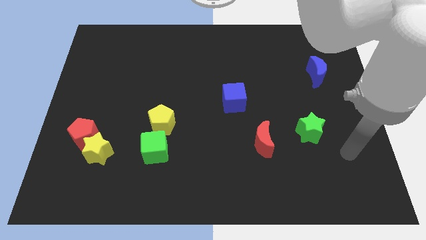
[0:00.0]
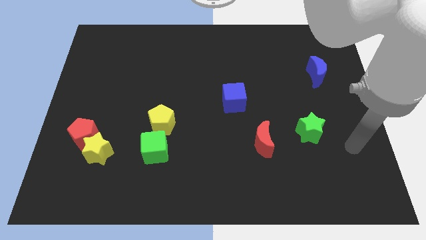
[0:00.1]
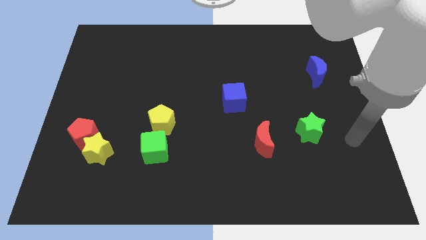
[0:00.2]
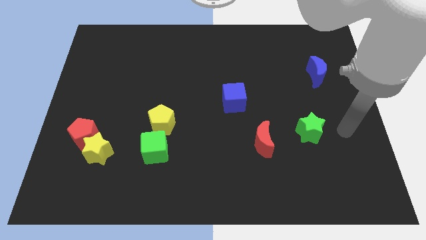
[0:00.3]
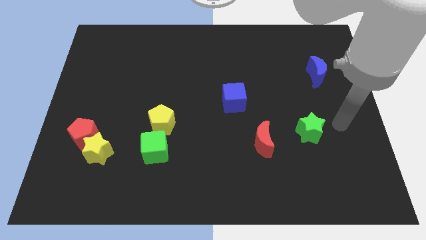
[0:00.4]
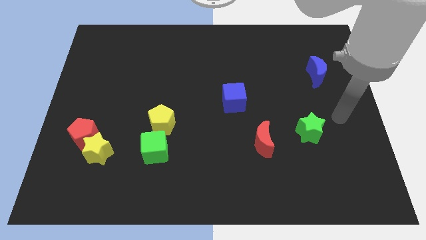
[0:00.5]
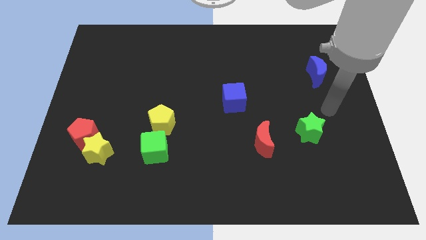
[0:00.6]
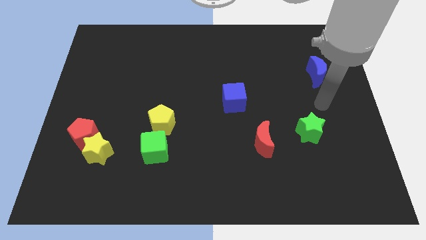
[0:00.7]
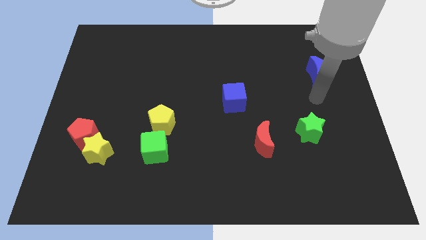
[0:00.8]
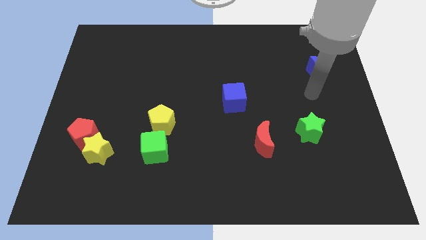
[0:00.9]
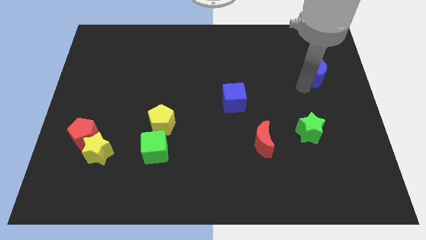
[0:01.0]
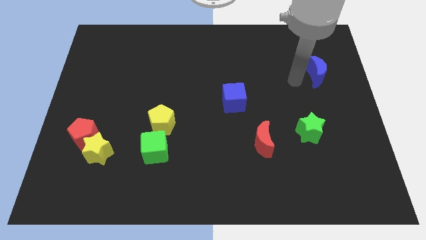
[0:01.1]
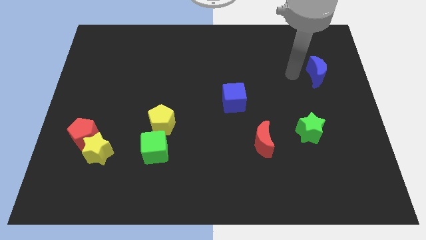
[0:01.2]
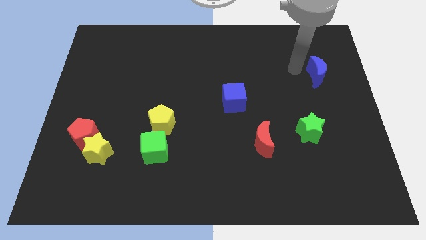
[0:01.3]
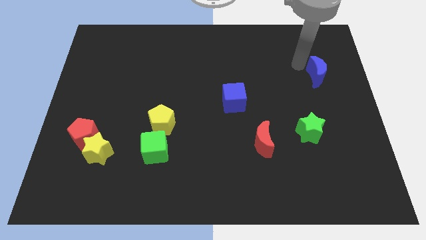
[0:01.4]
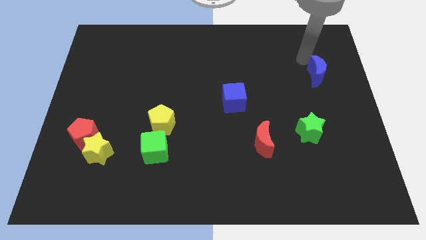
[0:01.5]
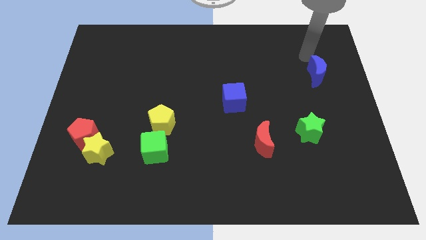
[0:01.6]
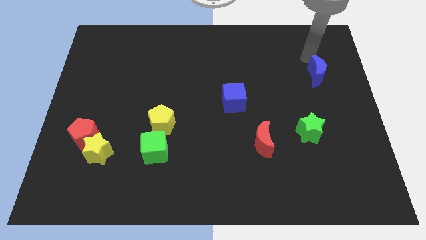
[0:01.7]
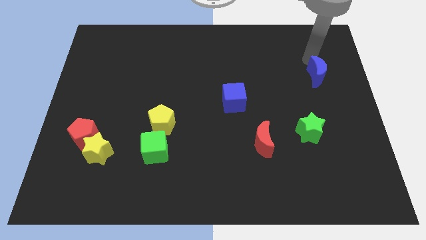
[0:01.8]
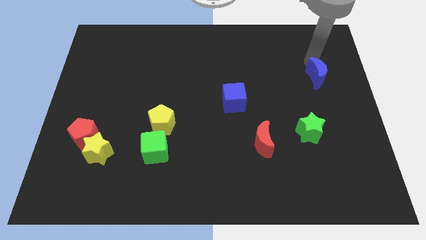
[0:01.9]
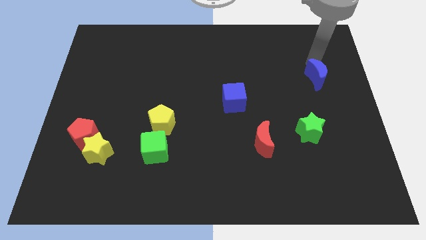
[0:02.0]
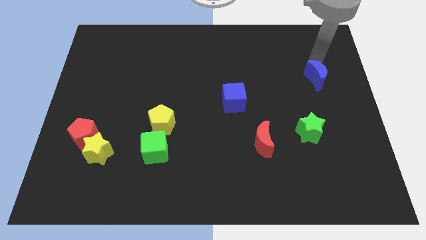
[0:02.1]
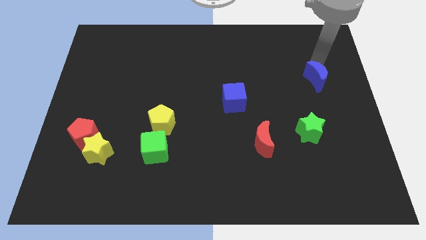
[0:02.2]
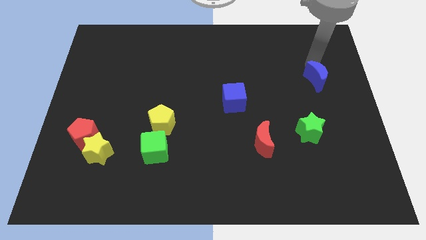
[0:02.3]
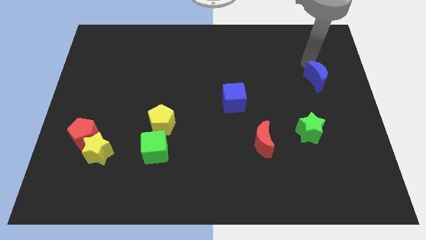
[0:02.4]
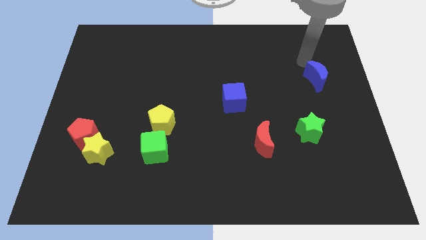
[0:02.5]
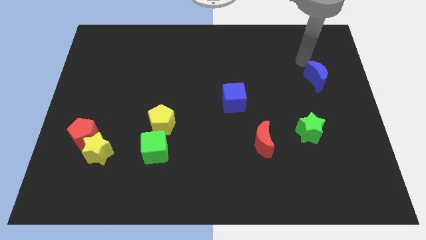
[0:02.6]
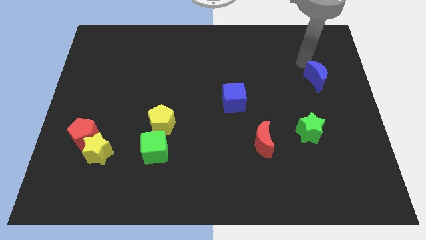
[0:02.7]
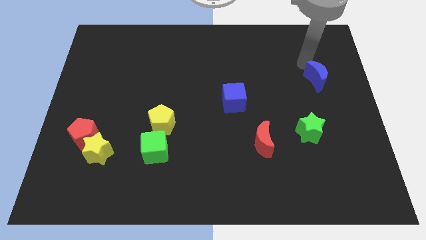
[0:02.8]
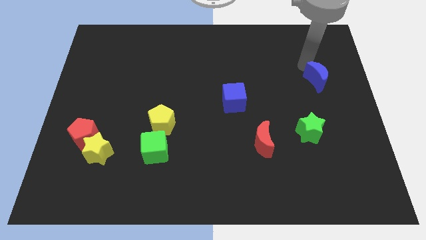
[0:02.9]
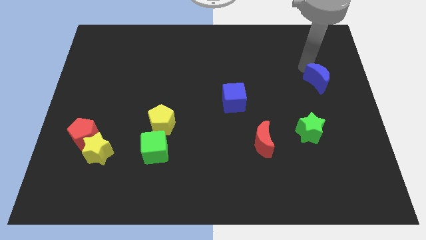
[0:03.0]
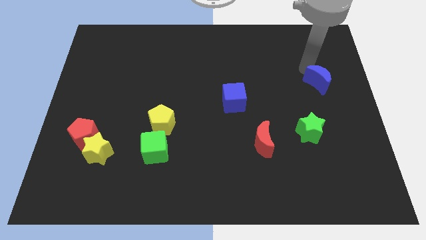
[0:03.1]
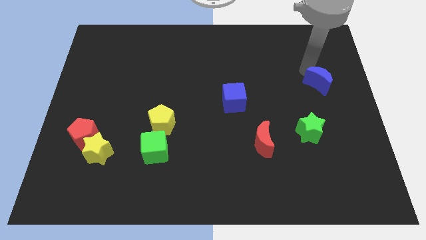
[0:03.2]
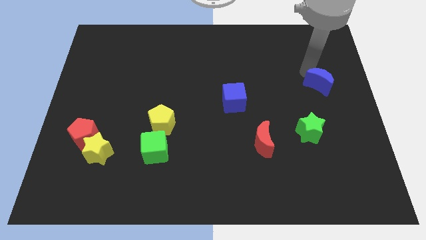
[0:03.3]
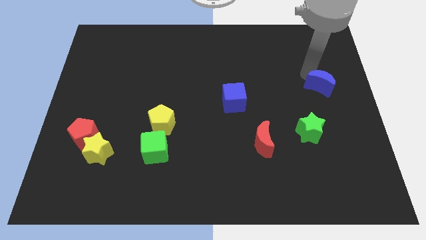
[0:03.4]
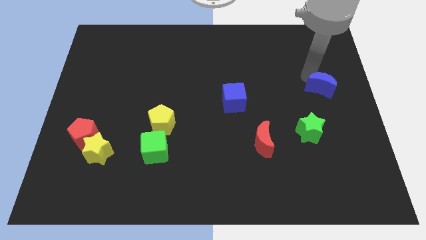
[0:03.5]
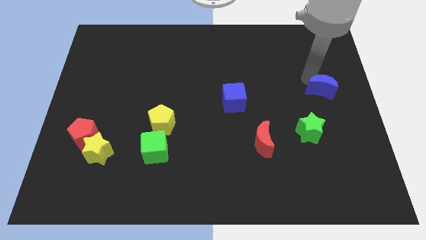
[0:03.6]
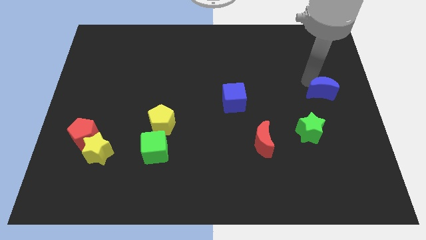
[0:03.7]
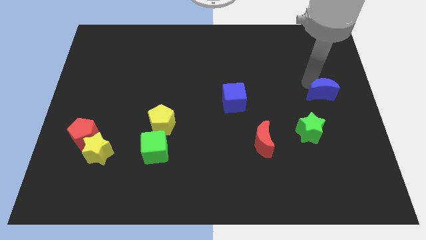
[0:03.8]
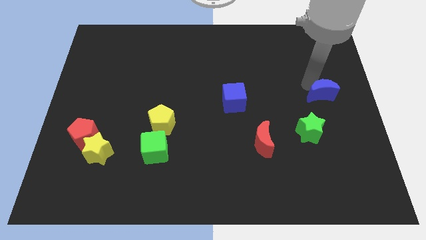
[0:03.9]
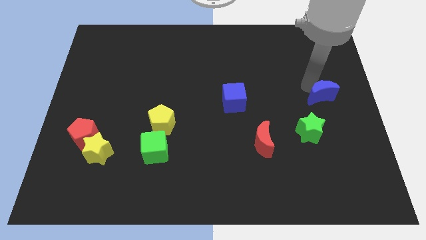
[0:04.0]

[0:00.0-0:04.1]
push the blue moon down somewhat

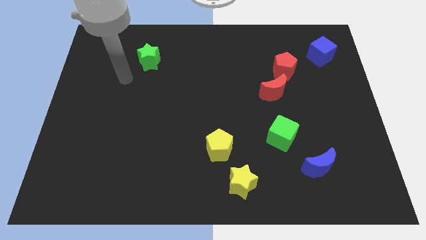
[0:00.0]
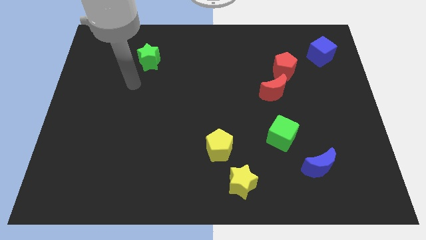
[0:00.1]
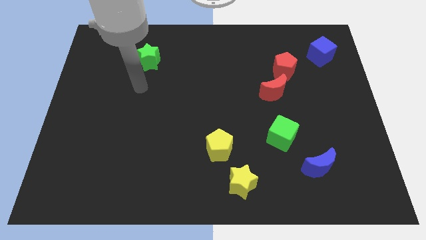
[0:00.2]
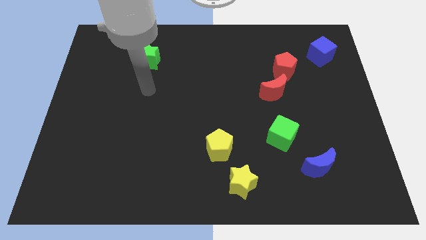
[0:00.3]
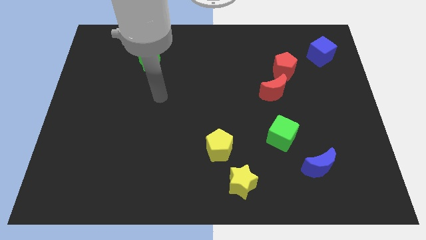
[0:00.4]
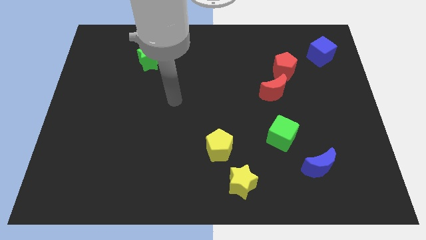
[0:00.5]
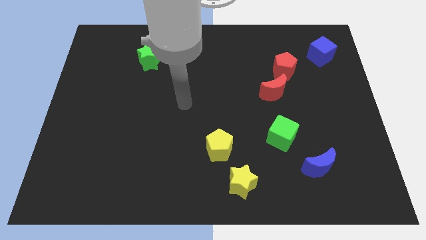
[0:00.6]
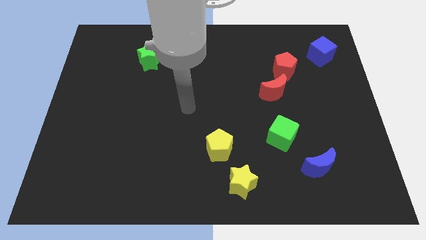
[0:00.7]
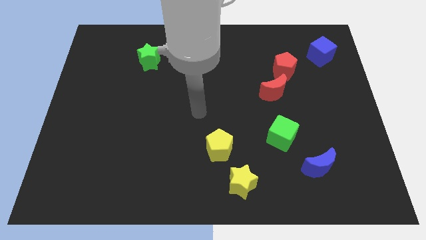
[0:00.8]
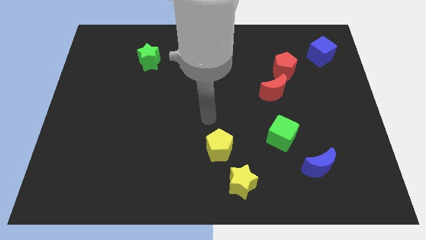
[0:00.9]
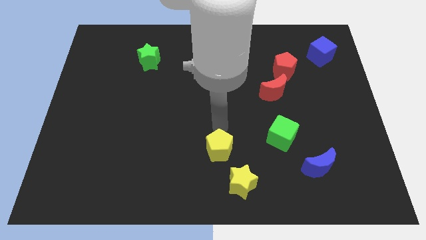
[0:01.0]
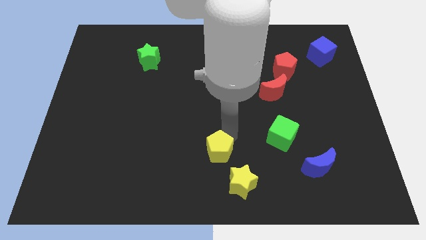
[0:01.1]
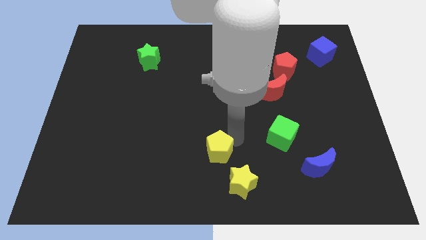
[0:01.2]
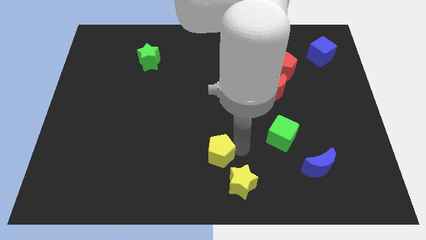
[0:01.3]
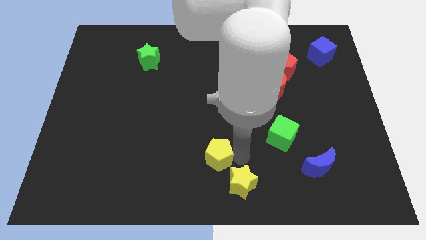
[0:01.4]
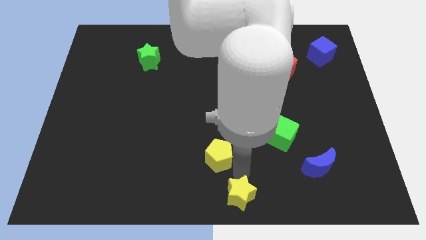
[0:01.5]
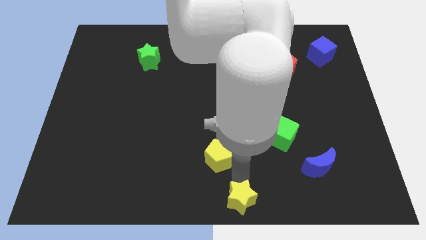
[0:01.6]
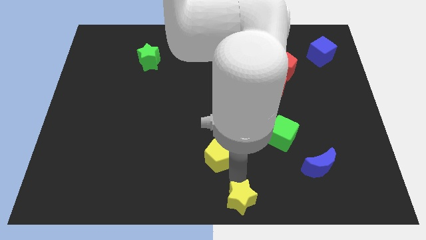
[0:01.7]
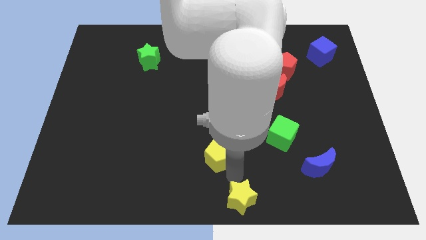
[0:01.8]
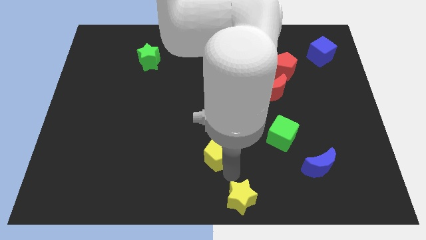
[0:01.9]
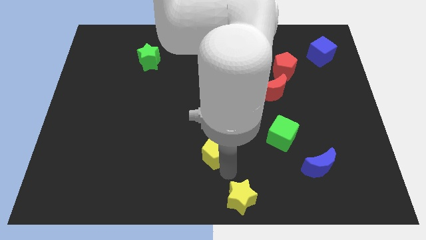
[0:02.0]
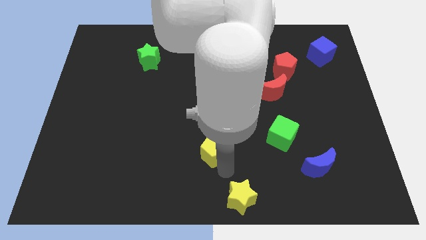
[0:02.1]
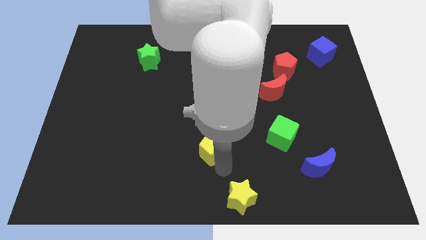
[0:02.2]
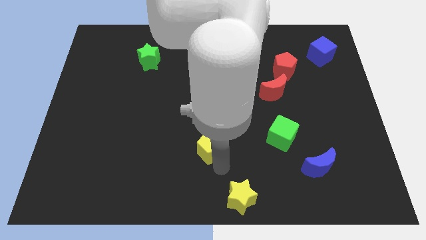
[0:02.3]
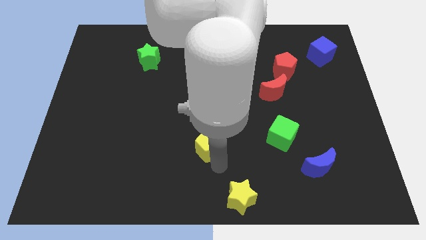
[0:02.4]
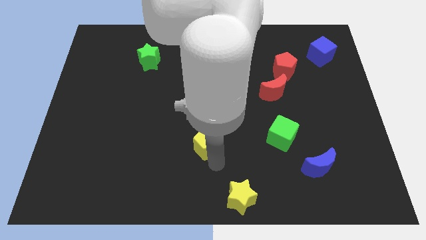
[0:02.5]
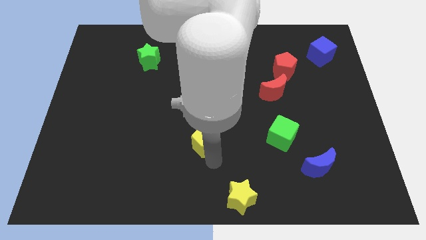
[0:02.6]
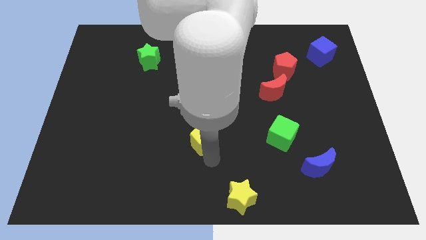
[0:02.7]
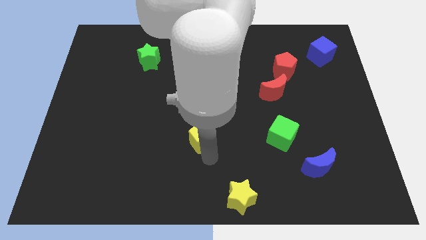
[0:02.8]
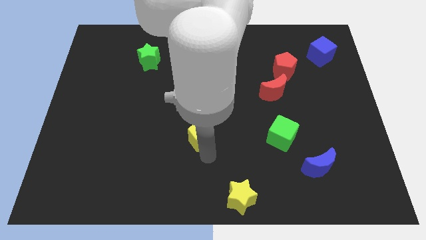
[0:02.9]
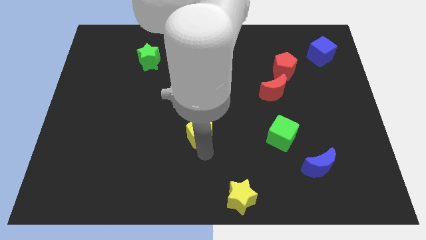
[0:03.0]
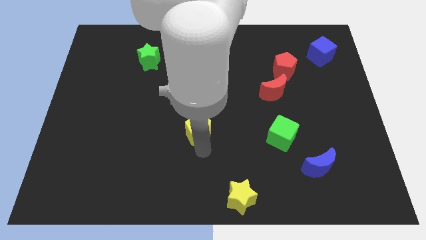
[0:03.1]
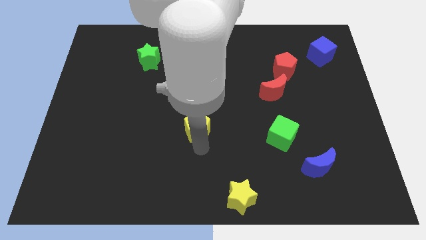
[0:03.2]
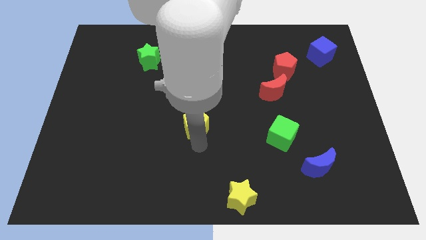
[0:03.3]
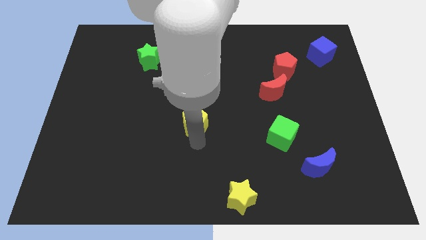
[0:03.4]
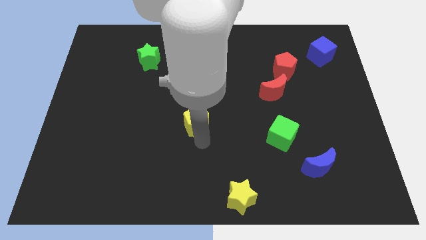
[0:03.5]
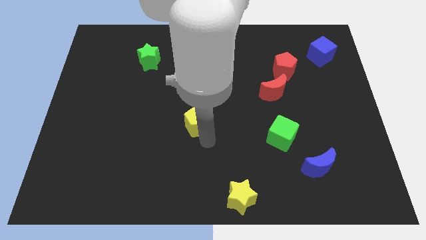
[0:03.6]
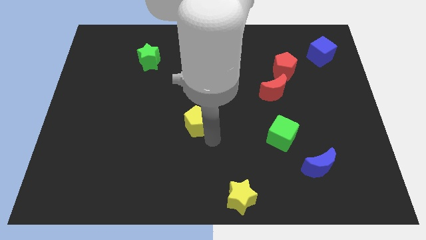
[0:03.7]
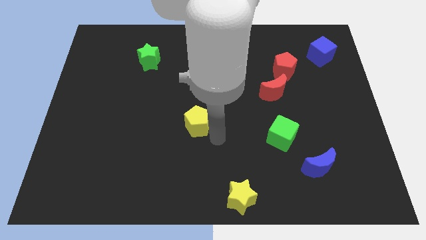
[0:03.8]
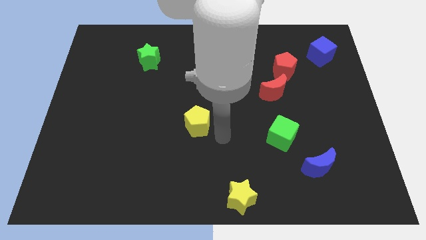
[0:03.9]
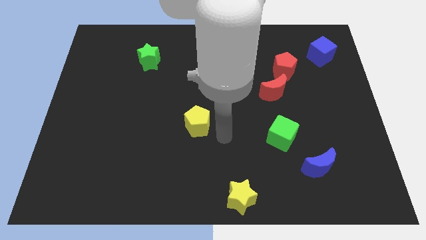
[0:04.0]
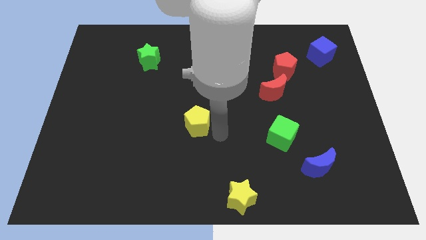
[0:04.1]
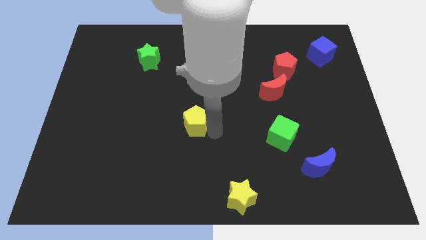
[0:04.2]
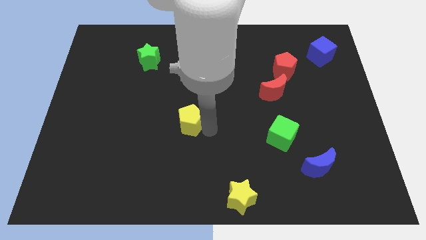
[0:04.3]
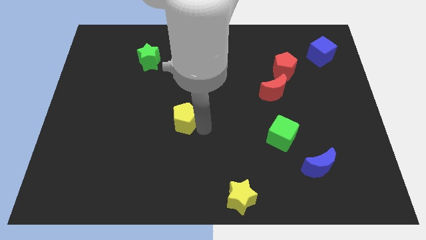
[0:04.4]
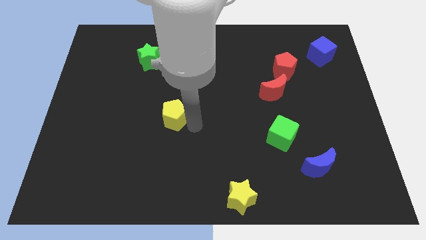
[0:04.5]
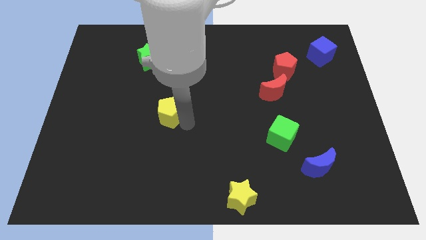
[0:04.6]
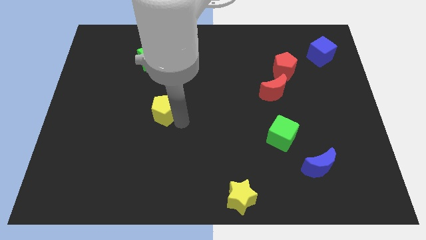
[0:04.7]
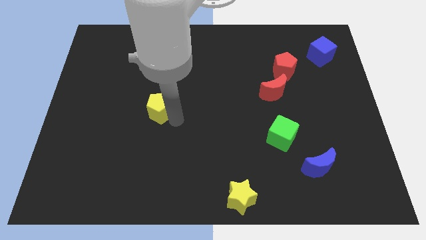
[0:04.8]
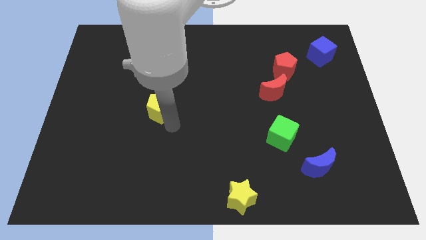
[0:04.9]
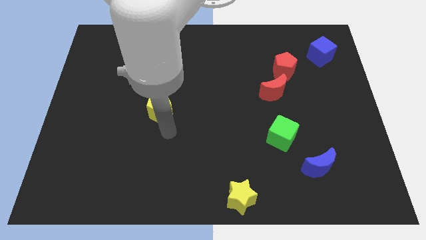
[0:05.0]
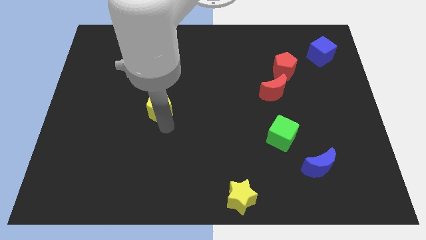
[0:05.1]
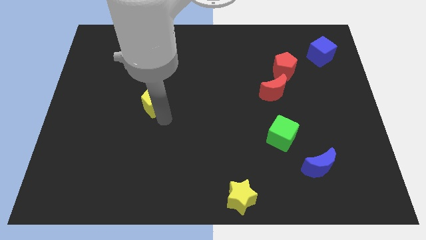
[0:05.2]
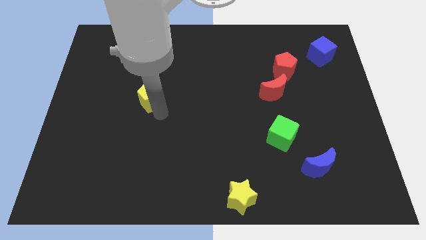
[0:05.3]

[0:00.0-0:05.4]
slide the yellow pentagon upwards and then to the left
